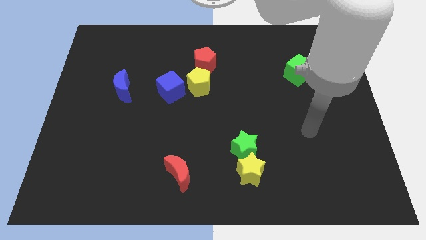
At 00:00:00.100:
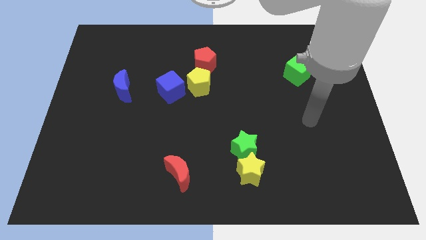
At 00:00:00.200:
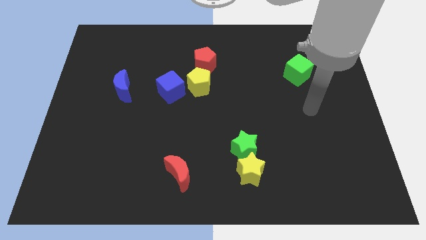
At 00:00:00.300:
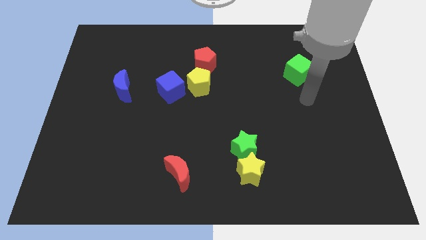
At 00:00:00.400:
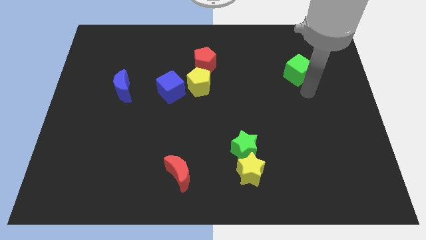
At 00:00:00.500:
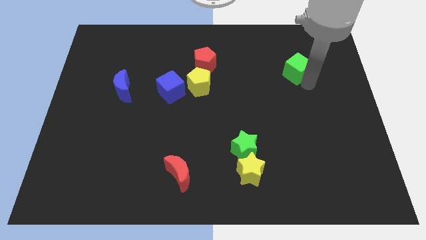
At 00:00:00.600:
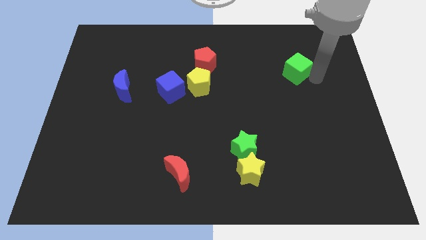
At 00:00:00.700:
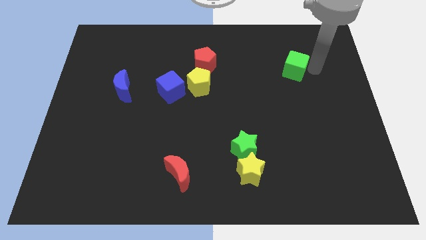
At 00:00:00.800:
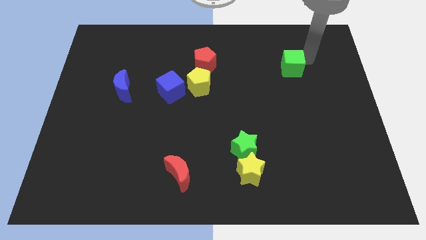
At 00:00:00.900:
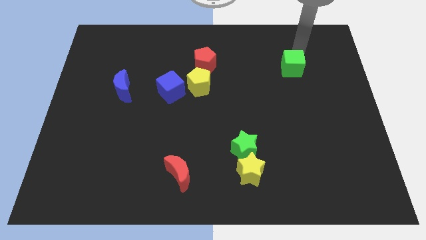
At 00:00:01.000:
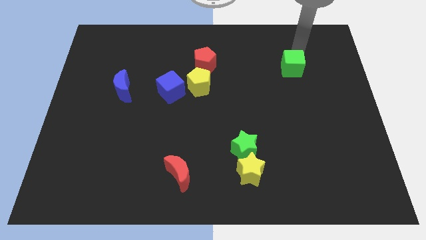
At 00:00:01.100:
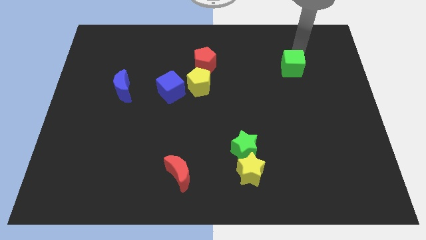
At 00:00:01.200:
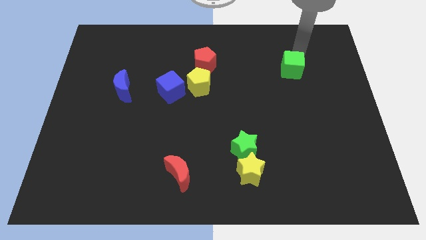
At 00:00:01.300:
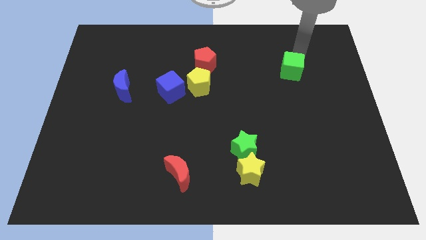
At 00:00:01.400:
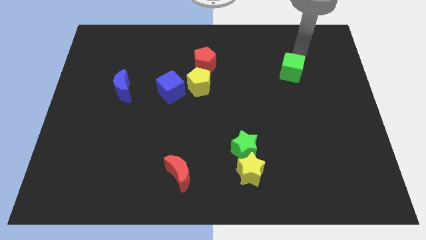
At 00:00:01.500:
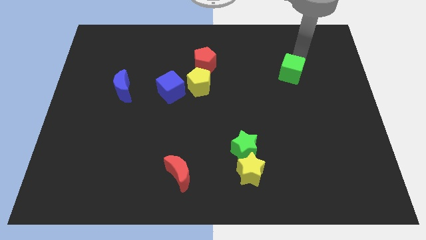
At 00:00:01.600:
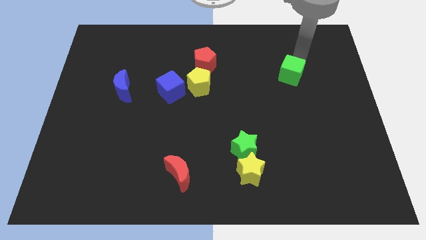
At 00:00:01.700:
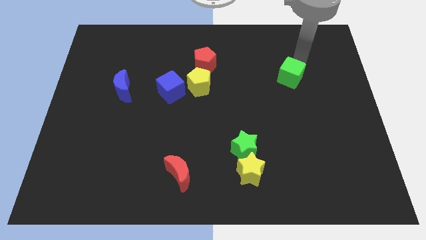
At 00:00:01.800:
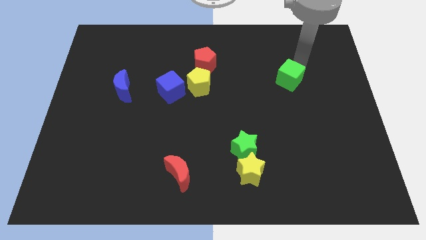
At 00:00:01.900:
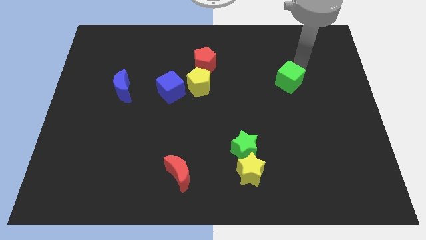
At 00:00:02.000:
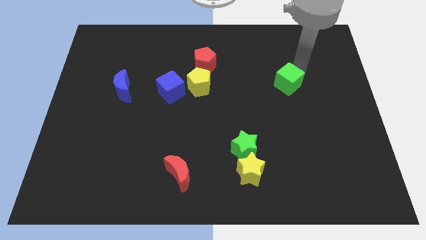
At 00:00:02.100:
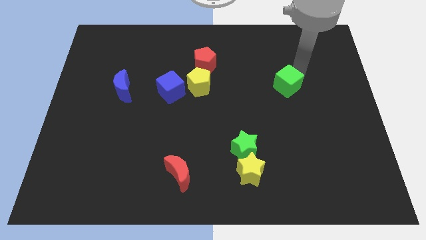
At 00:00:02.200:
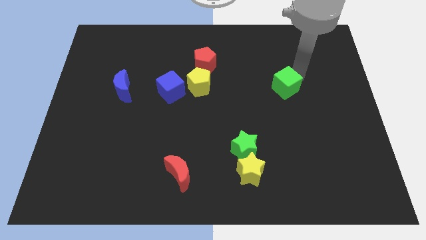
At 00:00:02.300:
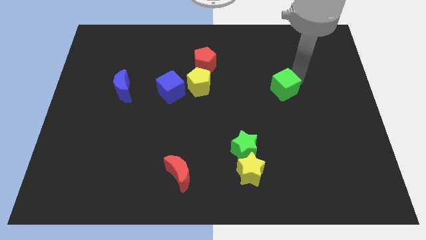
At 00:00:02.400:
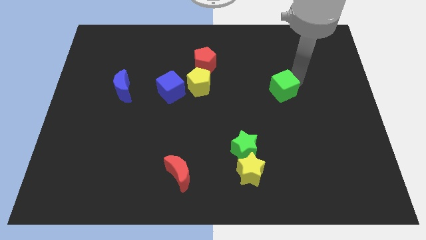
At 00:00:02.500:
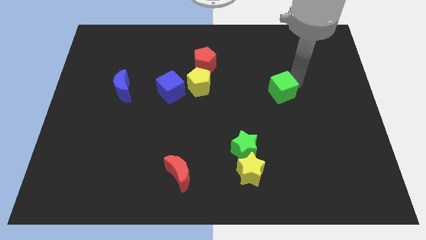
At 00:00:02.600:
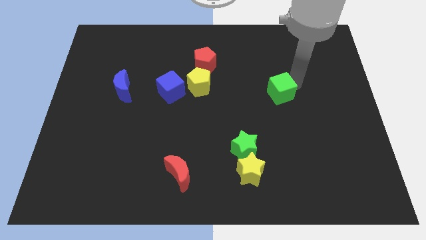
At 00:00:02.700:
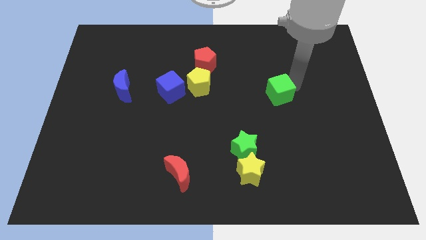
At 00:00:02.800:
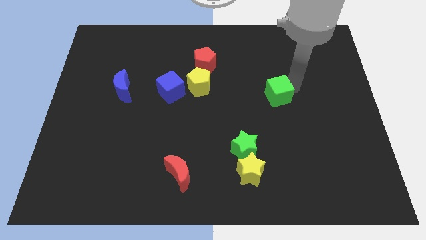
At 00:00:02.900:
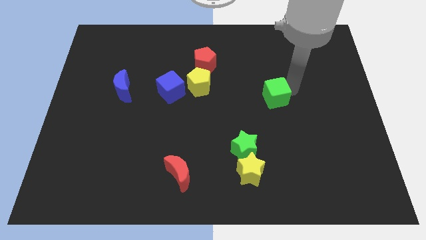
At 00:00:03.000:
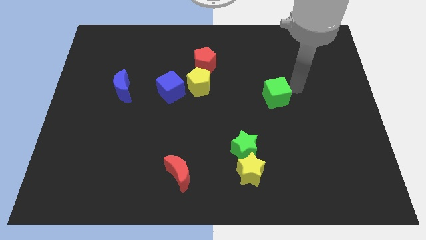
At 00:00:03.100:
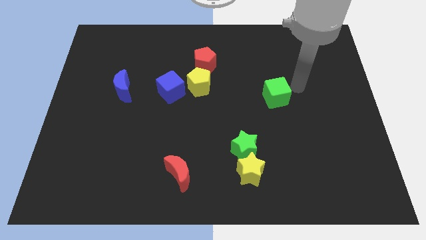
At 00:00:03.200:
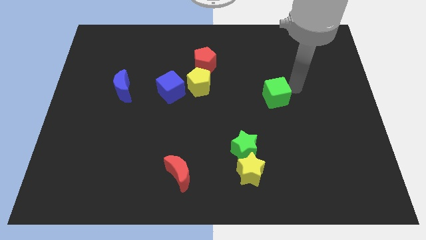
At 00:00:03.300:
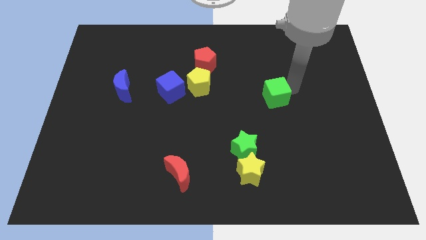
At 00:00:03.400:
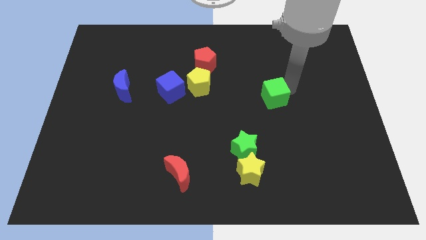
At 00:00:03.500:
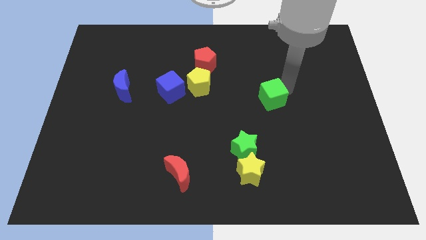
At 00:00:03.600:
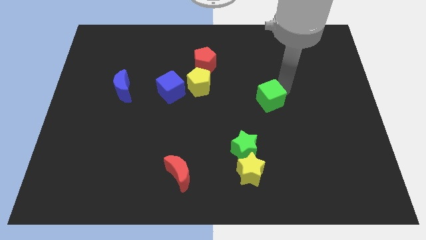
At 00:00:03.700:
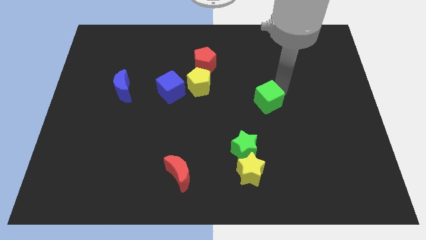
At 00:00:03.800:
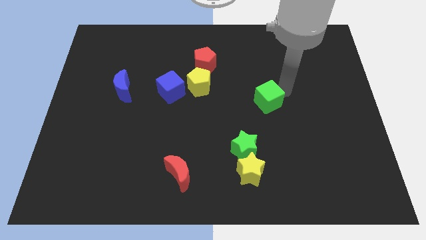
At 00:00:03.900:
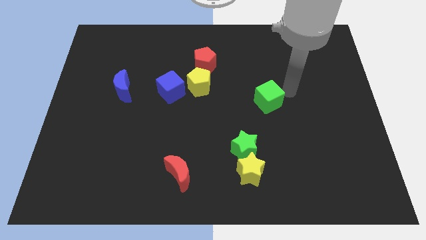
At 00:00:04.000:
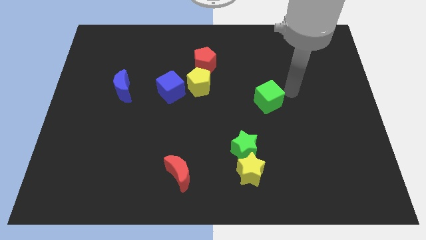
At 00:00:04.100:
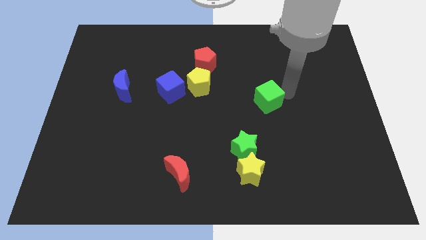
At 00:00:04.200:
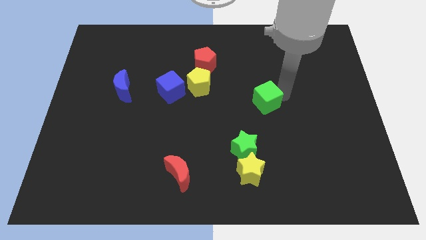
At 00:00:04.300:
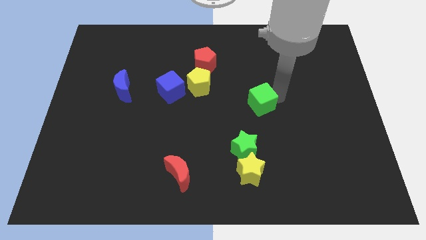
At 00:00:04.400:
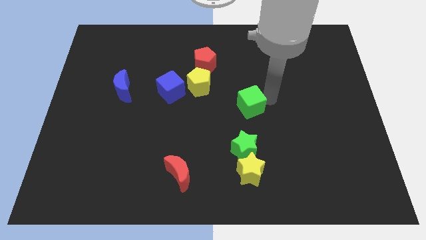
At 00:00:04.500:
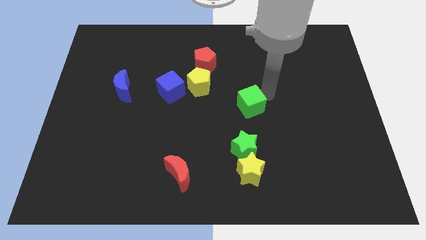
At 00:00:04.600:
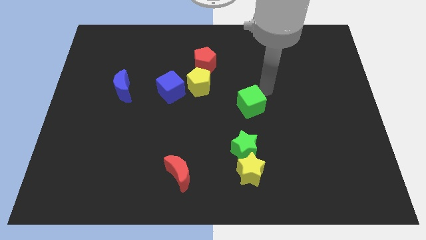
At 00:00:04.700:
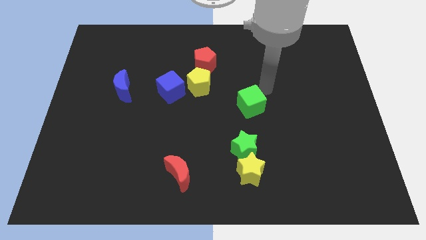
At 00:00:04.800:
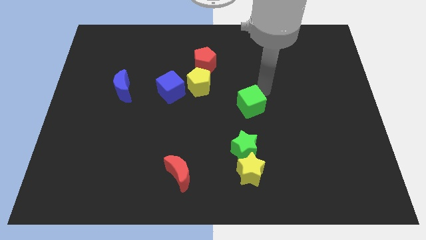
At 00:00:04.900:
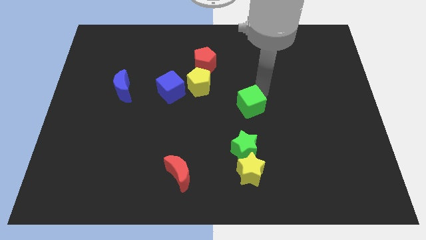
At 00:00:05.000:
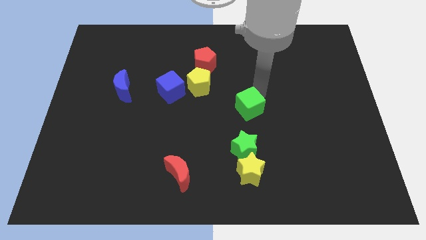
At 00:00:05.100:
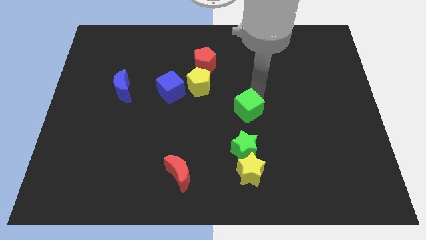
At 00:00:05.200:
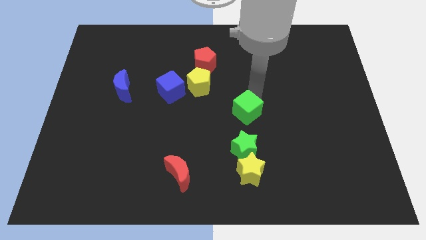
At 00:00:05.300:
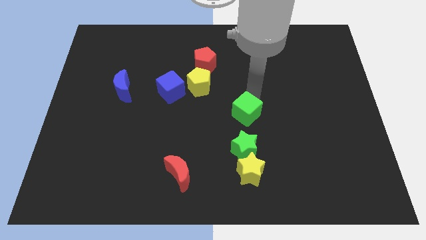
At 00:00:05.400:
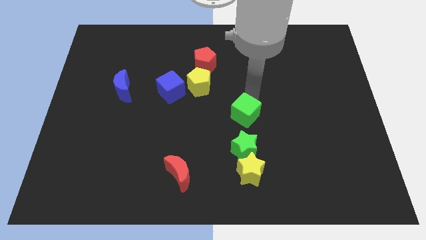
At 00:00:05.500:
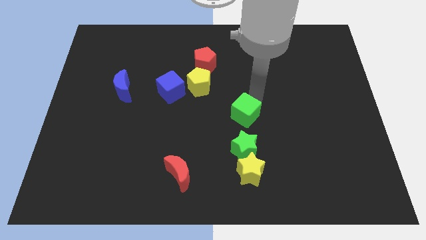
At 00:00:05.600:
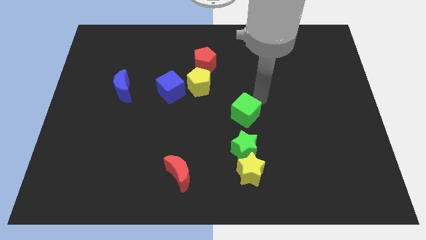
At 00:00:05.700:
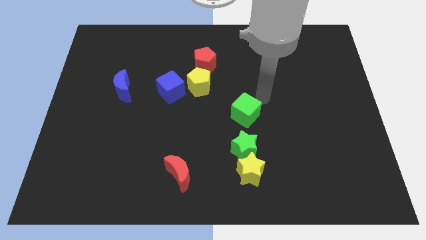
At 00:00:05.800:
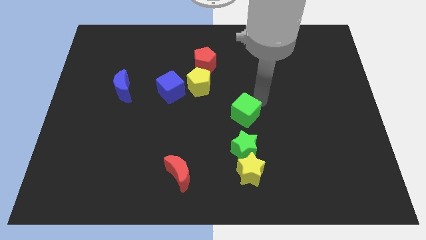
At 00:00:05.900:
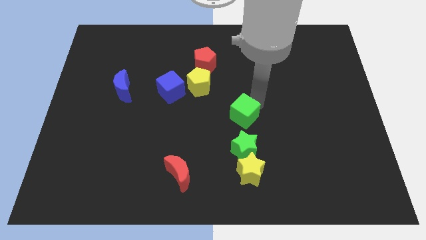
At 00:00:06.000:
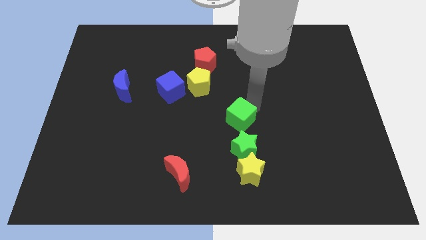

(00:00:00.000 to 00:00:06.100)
slide the green cube down and to the left diagonally

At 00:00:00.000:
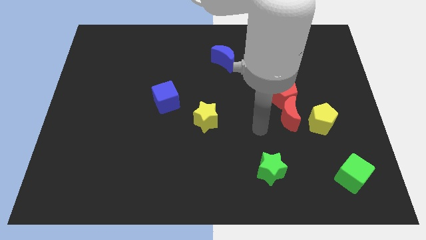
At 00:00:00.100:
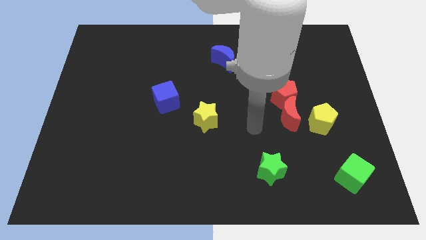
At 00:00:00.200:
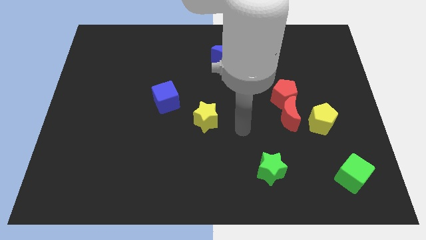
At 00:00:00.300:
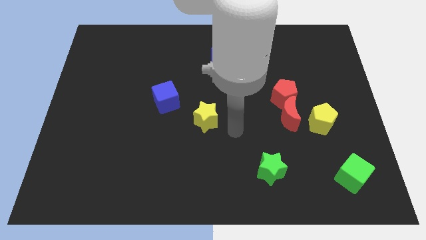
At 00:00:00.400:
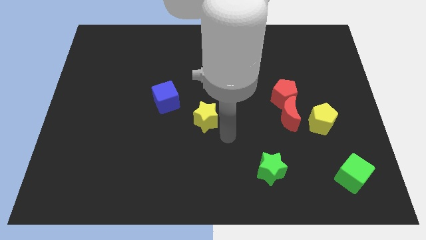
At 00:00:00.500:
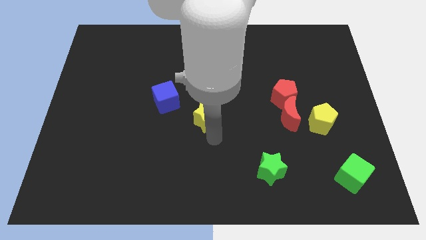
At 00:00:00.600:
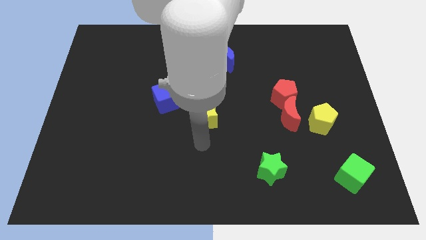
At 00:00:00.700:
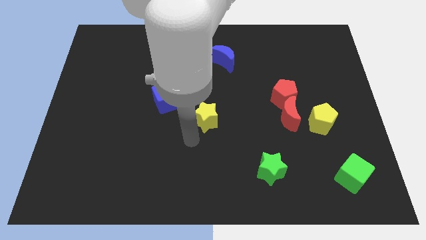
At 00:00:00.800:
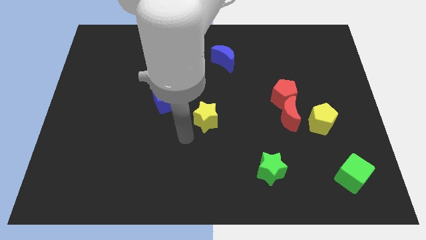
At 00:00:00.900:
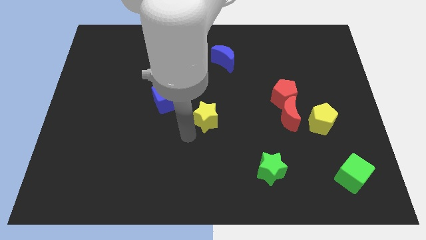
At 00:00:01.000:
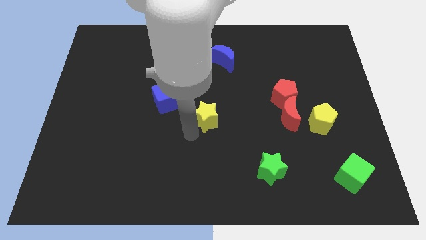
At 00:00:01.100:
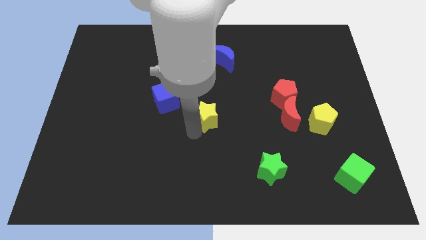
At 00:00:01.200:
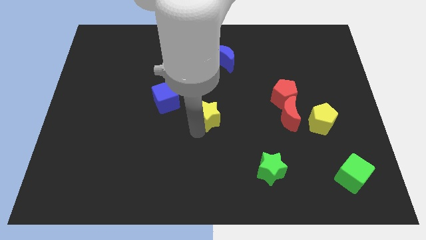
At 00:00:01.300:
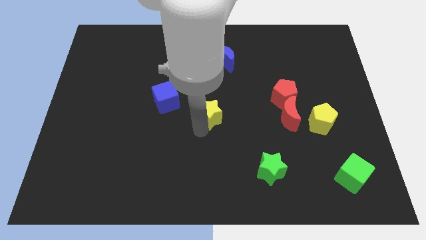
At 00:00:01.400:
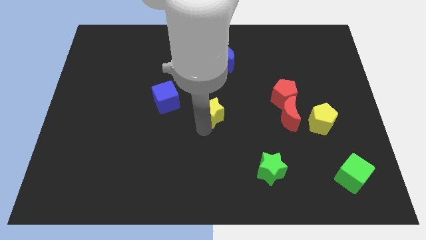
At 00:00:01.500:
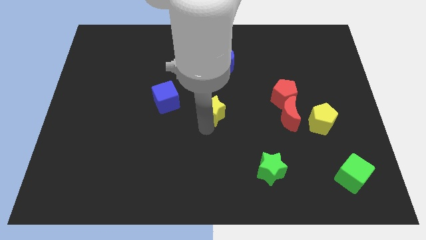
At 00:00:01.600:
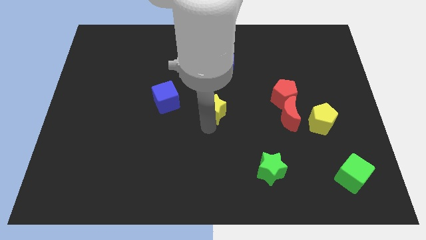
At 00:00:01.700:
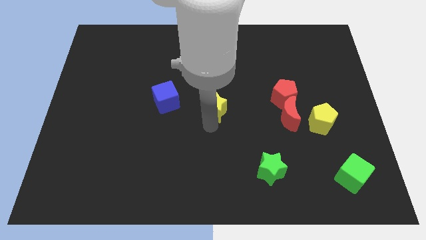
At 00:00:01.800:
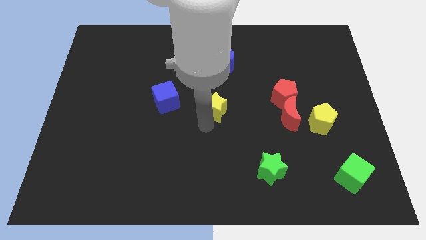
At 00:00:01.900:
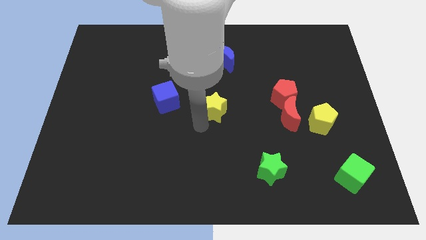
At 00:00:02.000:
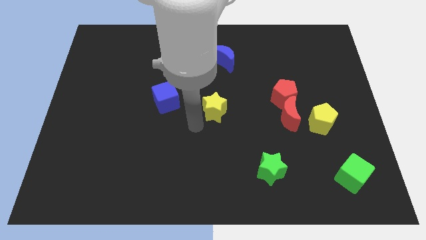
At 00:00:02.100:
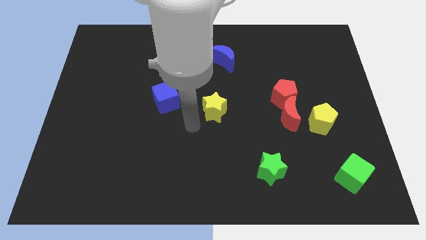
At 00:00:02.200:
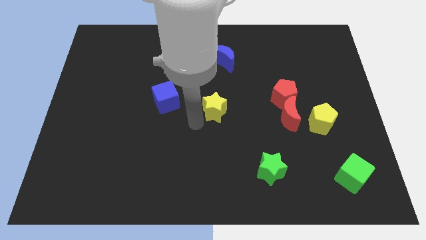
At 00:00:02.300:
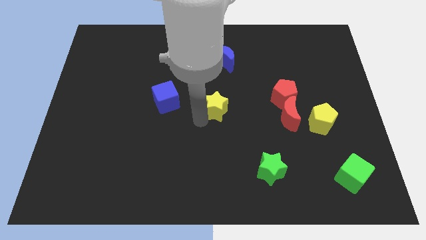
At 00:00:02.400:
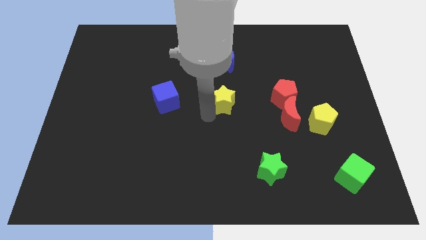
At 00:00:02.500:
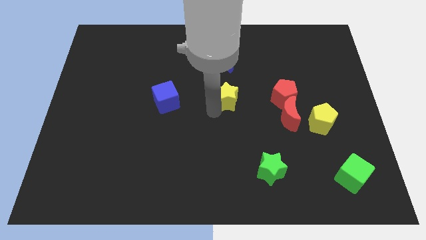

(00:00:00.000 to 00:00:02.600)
push the yellow star a little bit upwards and then right
